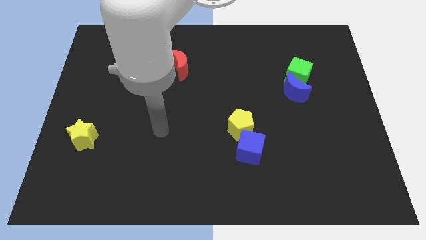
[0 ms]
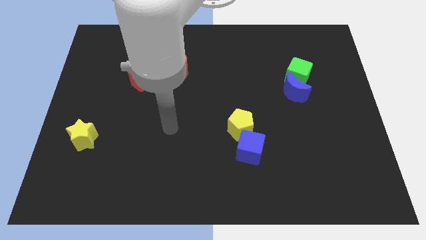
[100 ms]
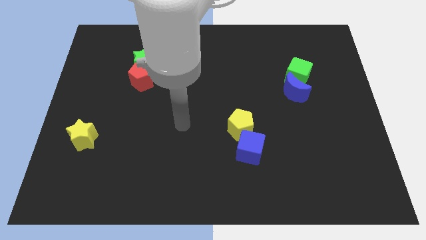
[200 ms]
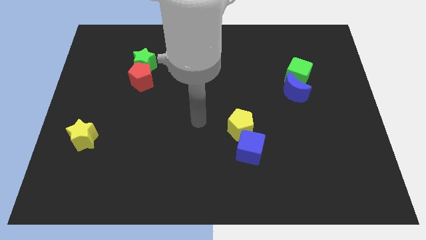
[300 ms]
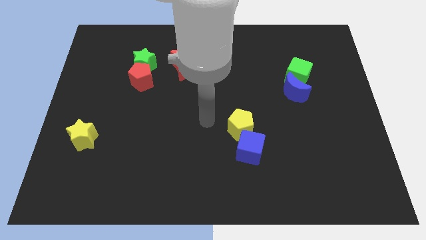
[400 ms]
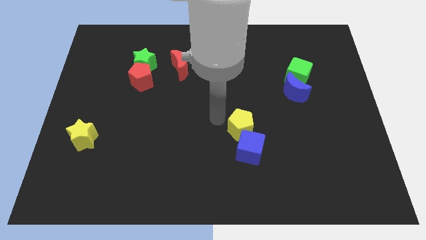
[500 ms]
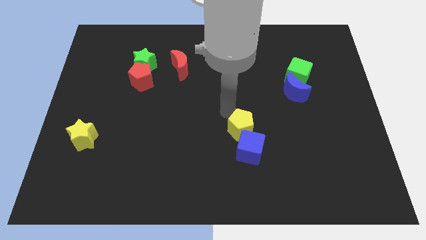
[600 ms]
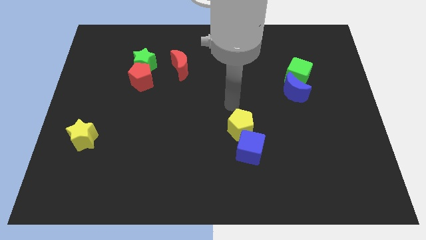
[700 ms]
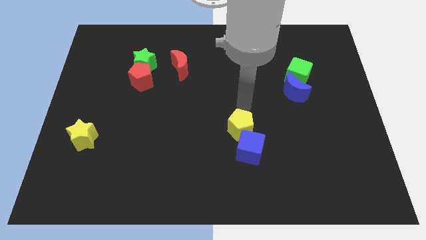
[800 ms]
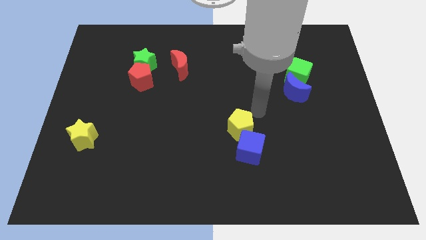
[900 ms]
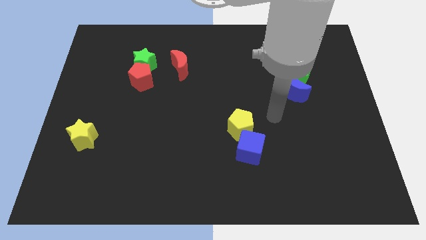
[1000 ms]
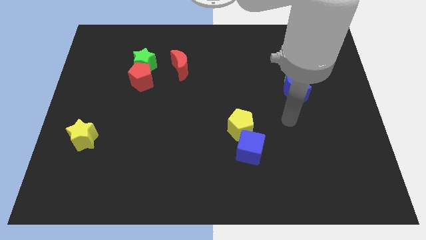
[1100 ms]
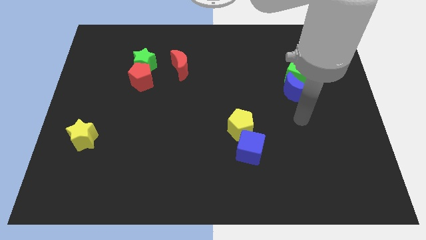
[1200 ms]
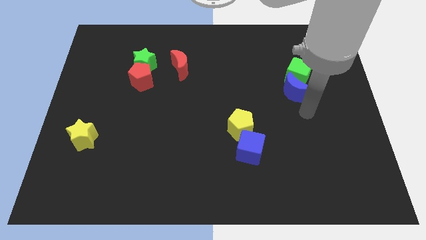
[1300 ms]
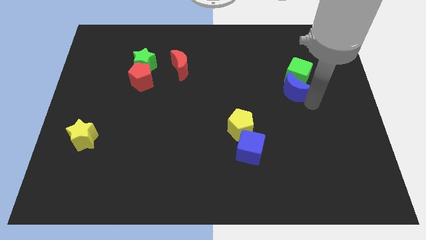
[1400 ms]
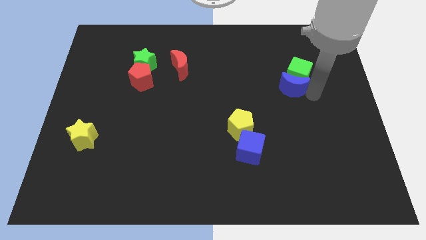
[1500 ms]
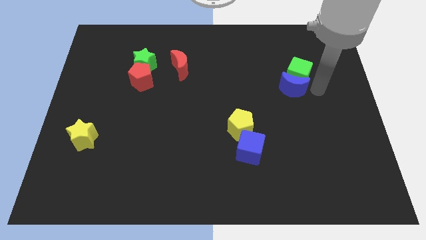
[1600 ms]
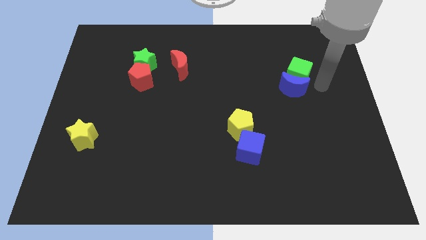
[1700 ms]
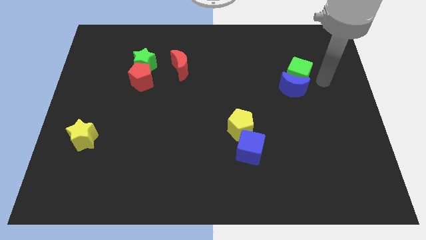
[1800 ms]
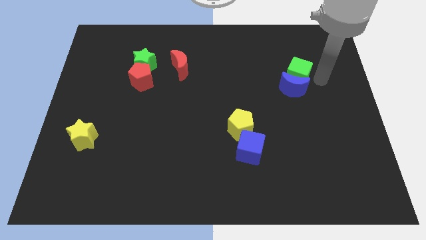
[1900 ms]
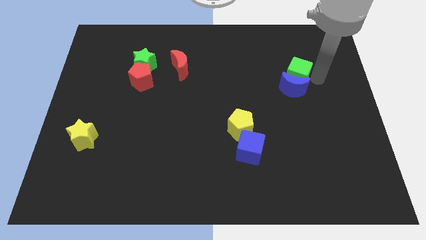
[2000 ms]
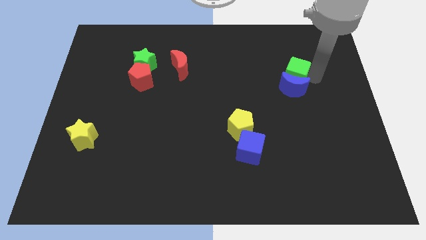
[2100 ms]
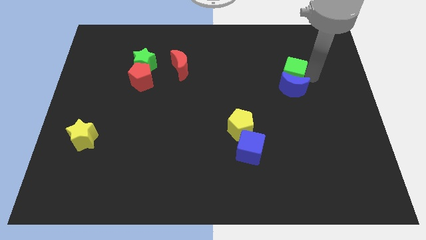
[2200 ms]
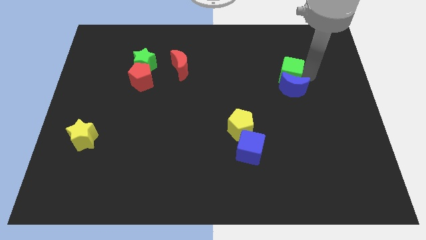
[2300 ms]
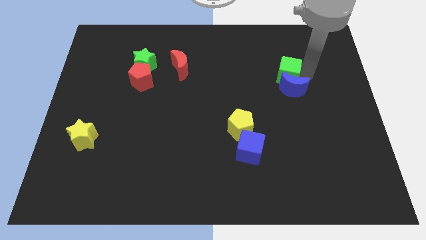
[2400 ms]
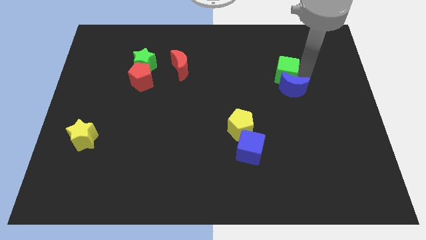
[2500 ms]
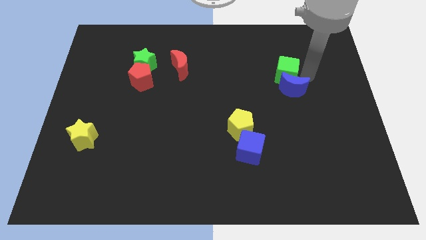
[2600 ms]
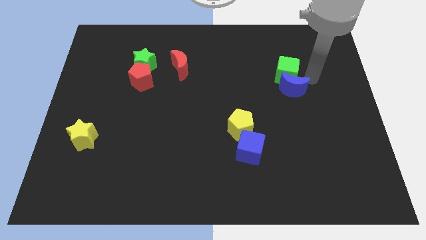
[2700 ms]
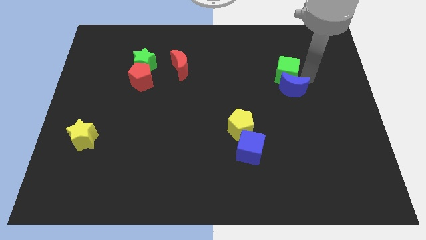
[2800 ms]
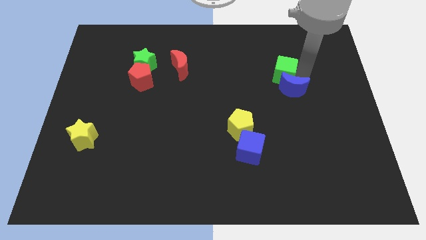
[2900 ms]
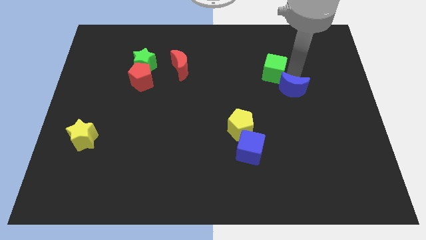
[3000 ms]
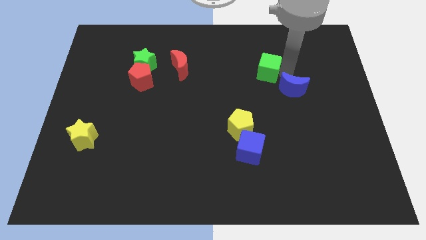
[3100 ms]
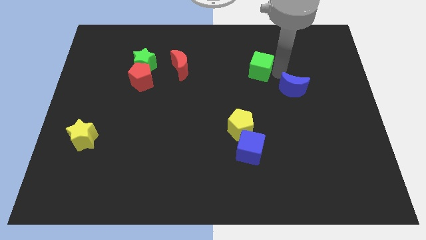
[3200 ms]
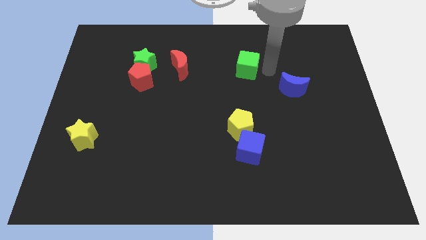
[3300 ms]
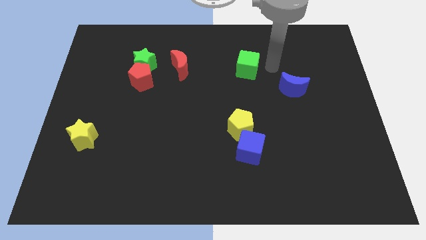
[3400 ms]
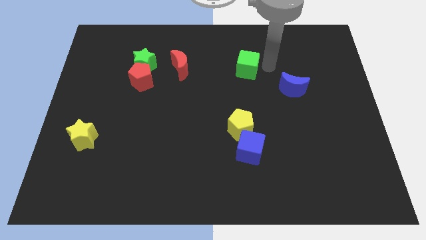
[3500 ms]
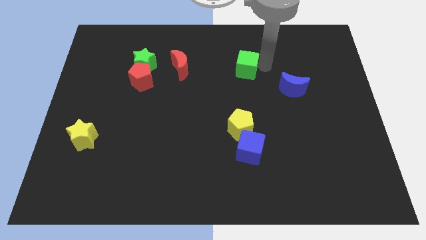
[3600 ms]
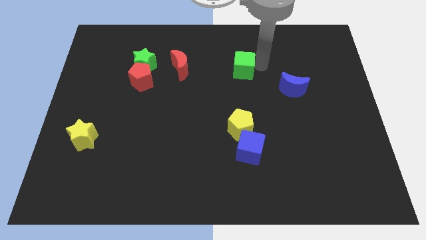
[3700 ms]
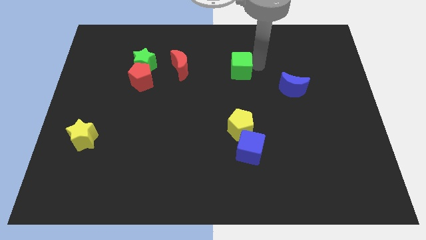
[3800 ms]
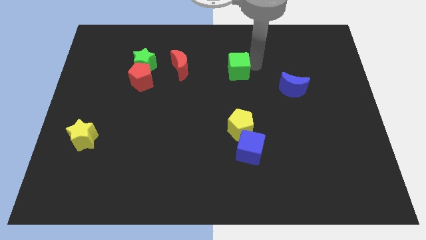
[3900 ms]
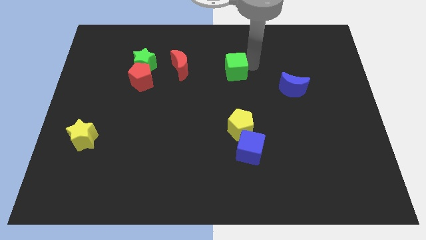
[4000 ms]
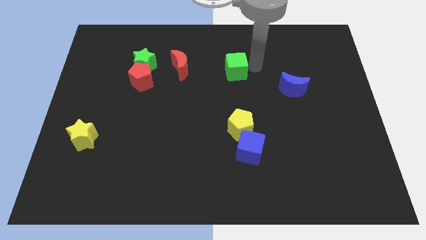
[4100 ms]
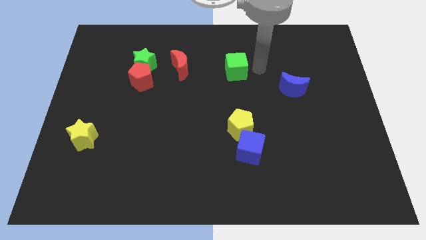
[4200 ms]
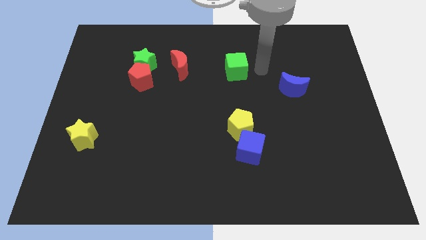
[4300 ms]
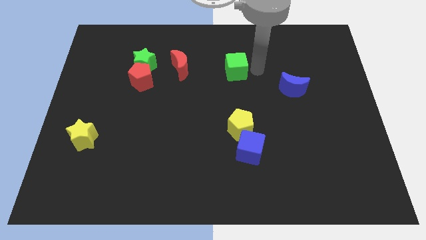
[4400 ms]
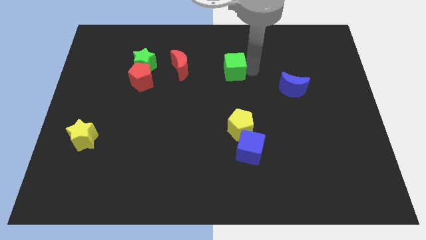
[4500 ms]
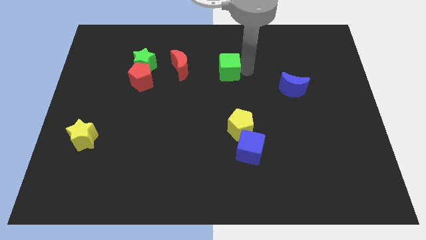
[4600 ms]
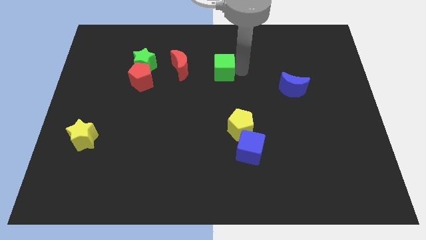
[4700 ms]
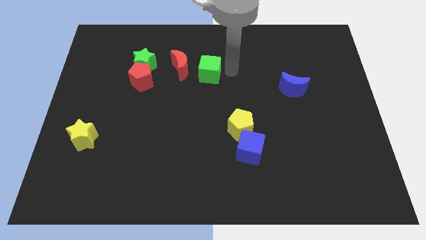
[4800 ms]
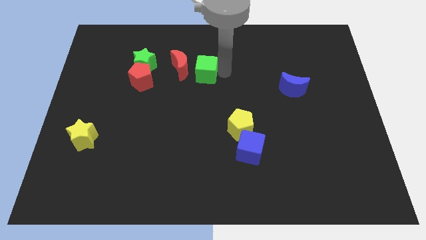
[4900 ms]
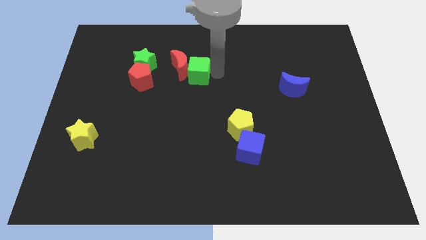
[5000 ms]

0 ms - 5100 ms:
put the green cube close to the red moon

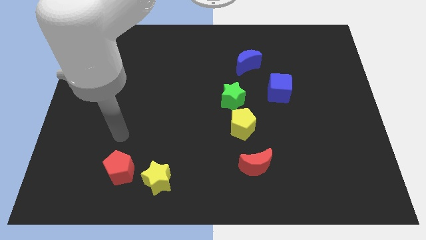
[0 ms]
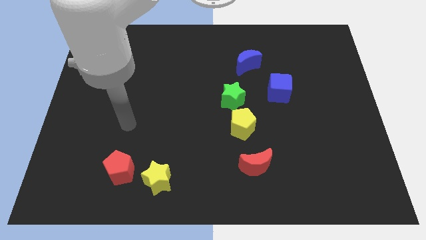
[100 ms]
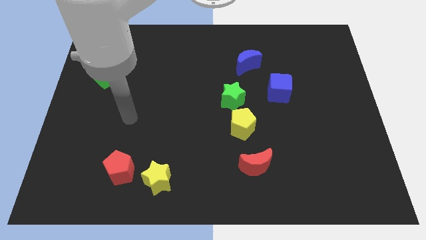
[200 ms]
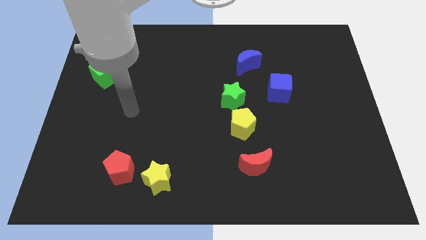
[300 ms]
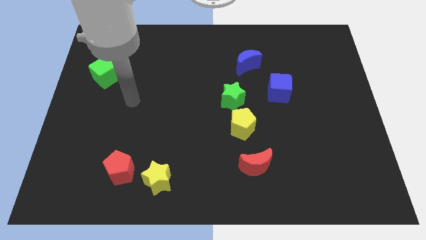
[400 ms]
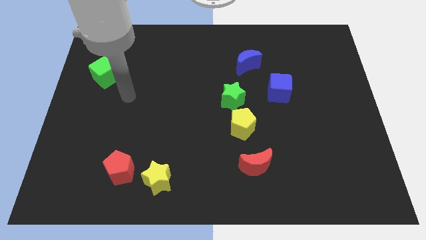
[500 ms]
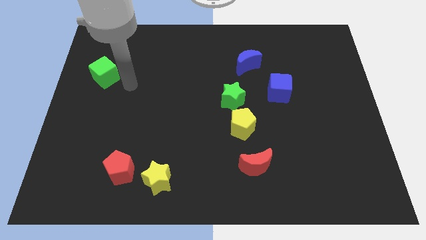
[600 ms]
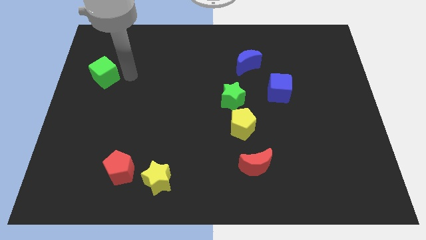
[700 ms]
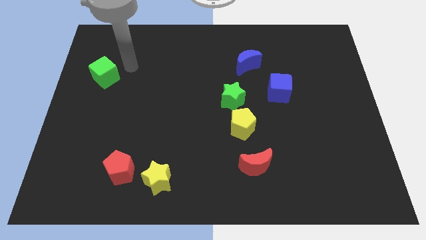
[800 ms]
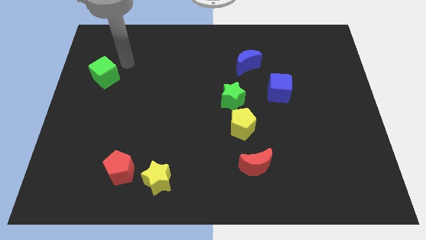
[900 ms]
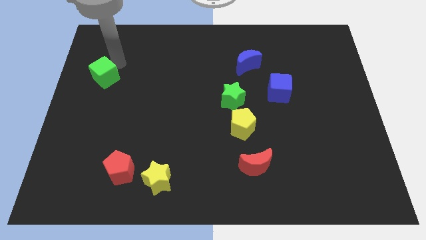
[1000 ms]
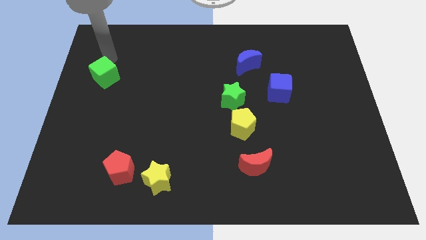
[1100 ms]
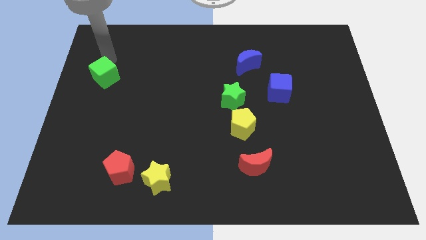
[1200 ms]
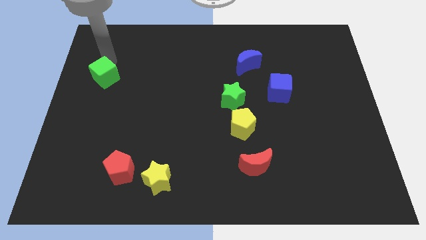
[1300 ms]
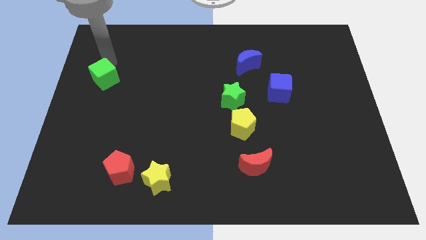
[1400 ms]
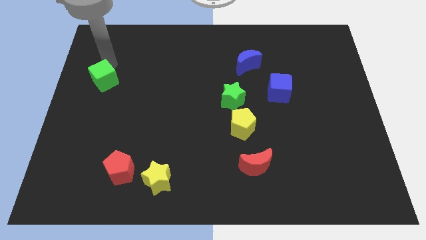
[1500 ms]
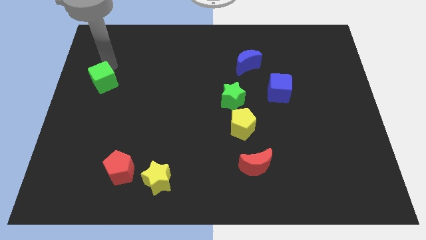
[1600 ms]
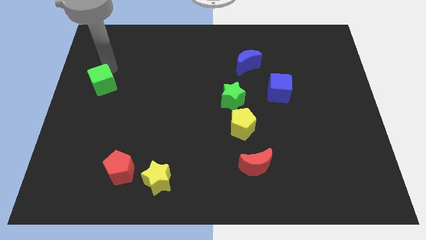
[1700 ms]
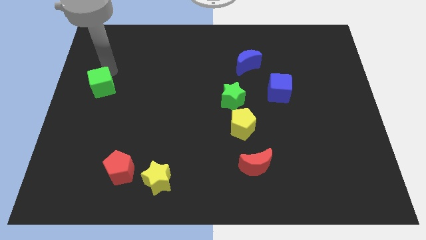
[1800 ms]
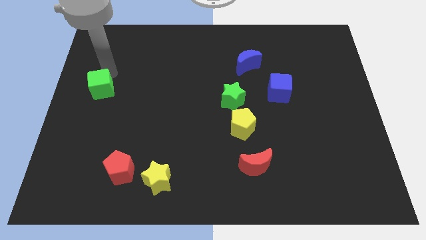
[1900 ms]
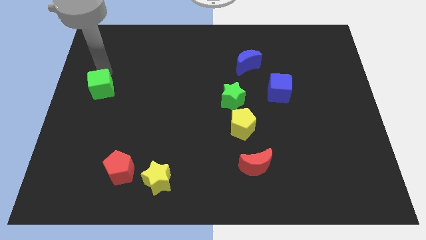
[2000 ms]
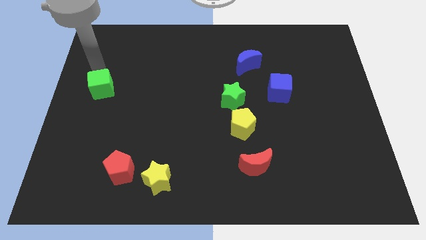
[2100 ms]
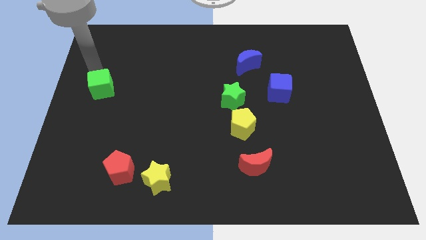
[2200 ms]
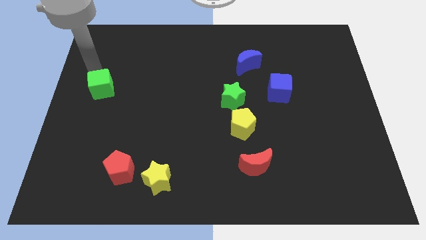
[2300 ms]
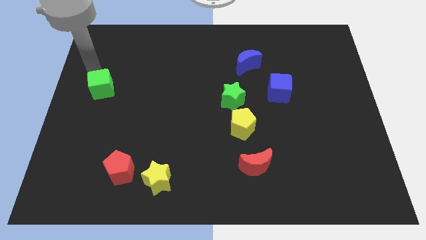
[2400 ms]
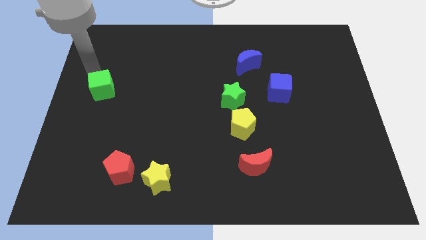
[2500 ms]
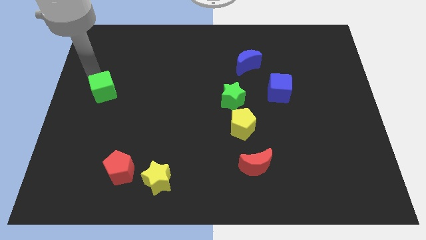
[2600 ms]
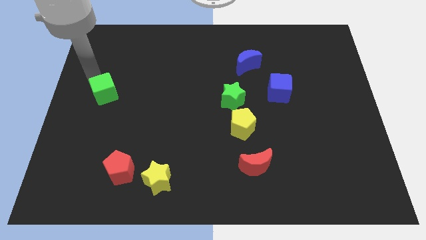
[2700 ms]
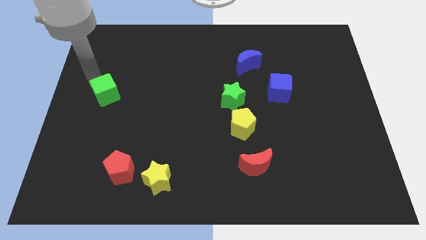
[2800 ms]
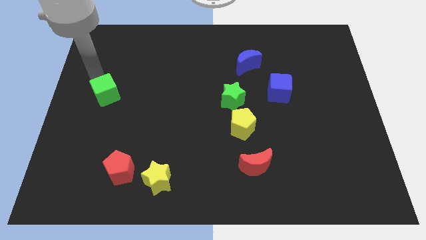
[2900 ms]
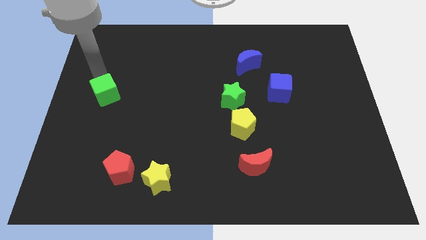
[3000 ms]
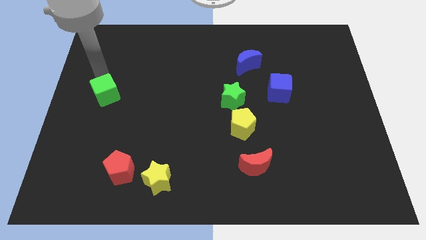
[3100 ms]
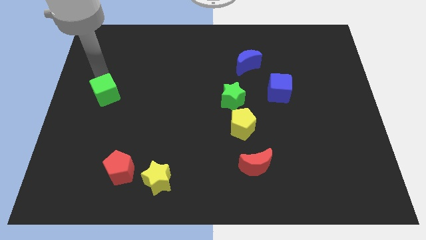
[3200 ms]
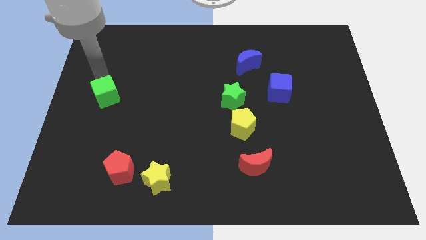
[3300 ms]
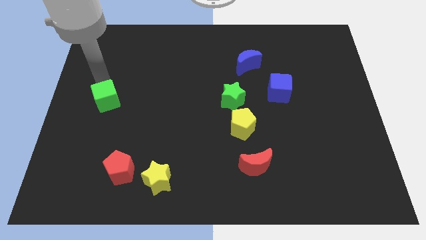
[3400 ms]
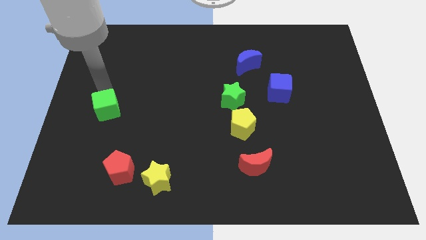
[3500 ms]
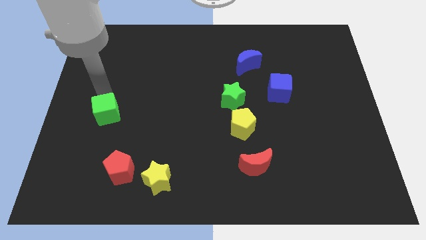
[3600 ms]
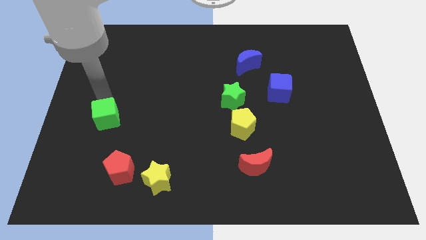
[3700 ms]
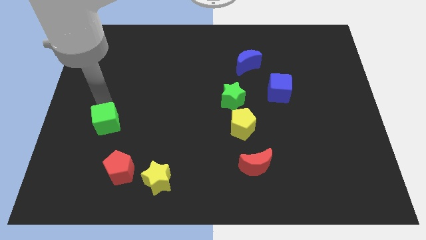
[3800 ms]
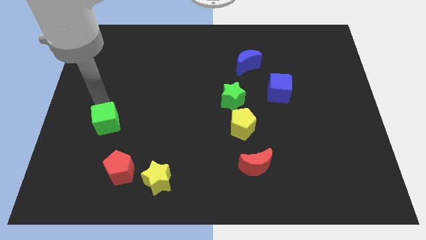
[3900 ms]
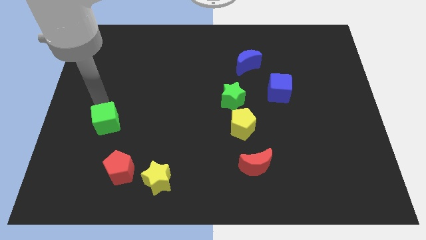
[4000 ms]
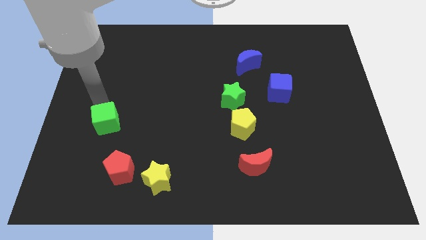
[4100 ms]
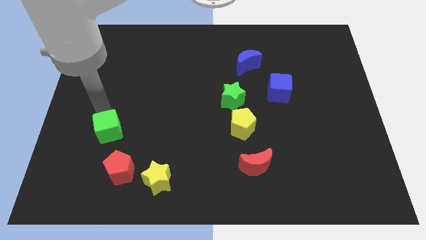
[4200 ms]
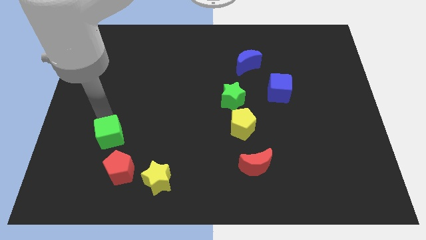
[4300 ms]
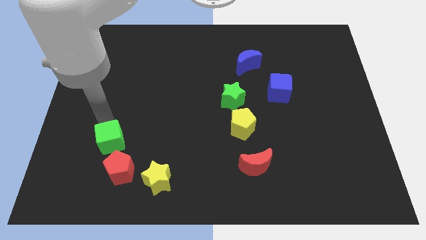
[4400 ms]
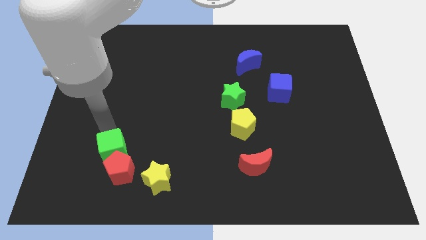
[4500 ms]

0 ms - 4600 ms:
put the green cube next to the red pentagon
